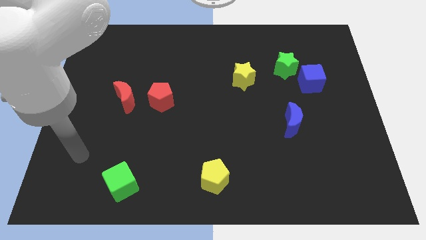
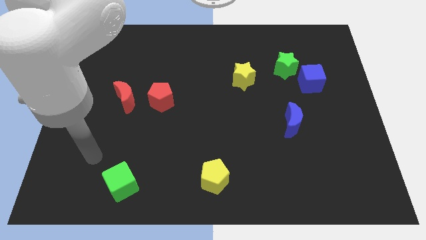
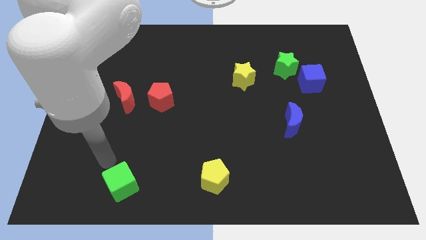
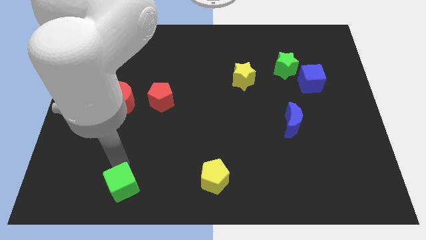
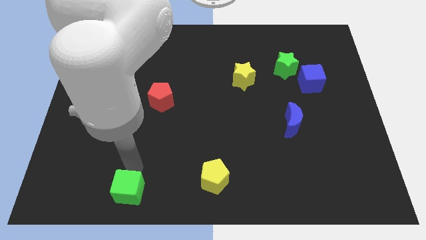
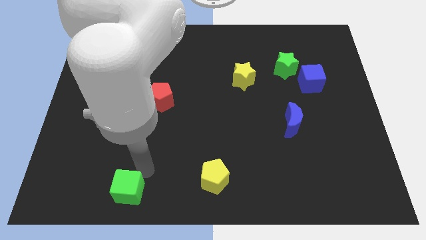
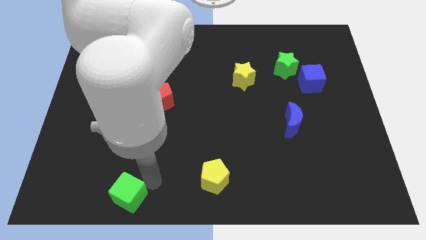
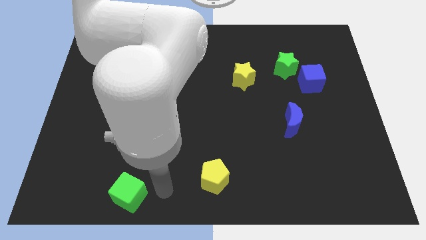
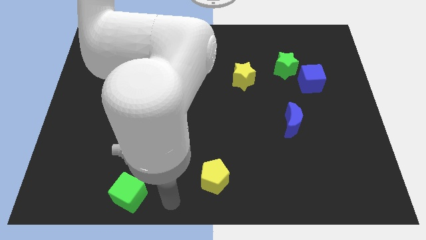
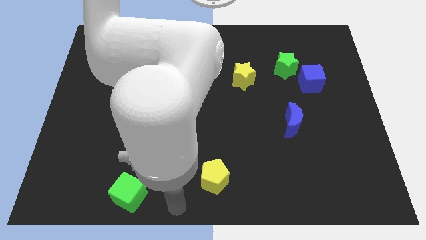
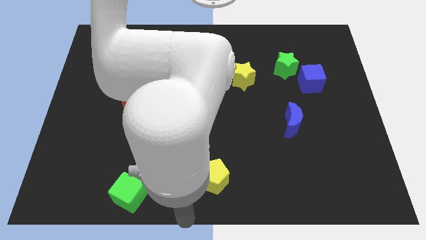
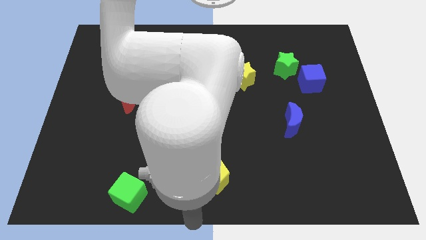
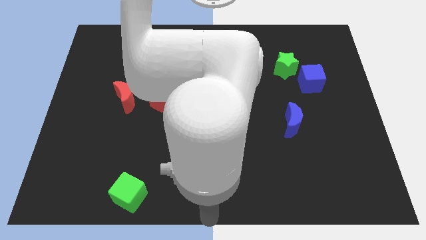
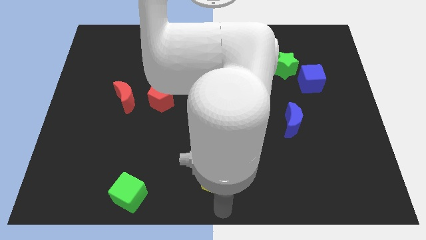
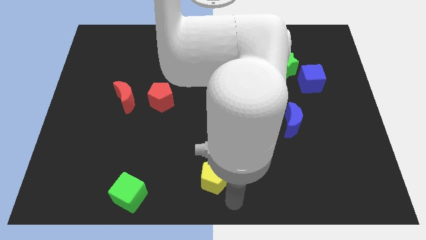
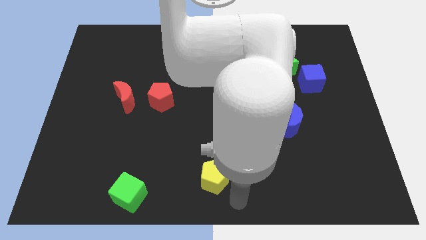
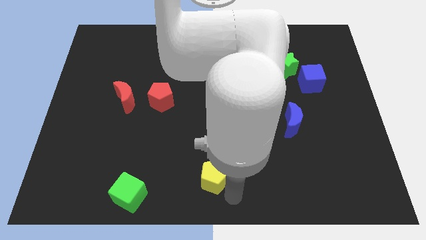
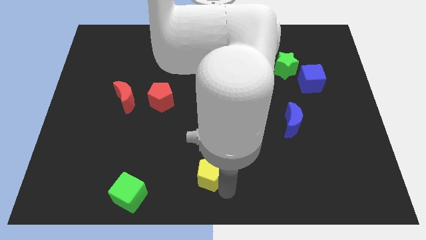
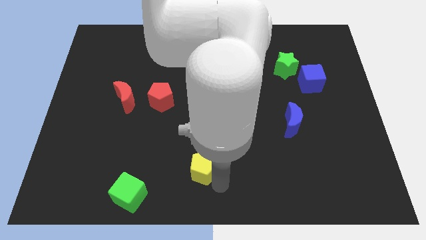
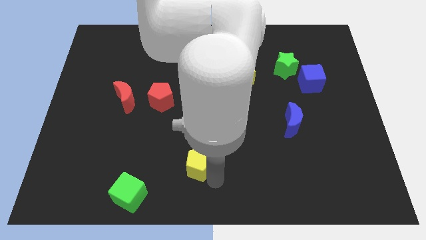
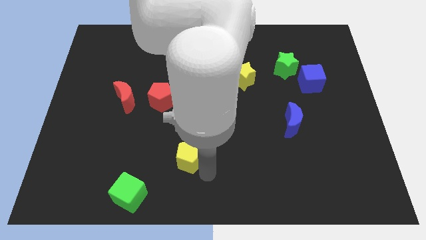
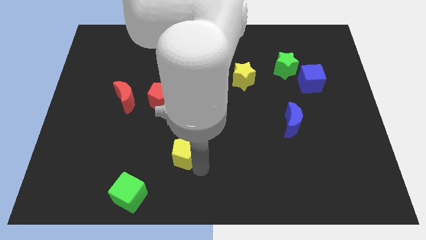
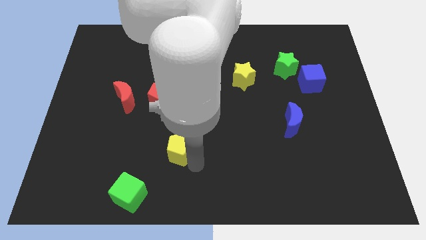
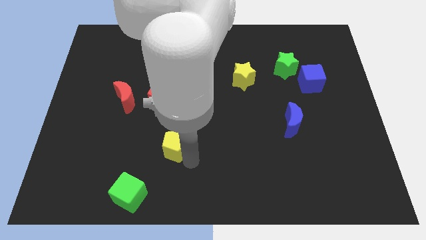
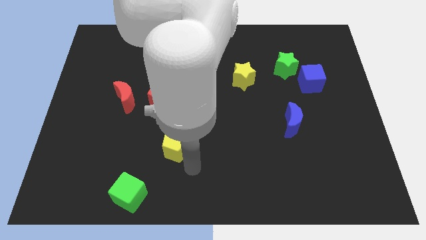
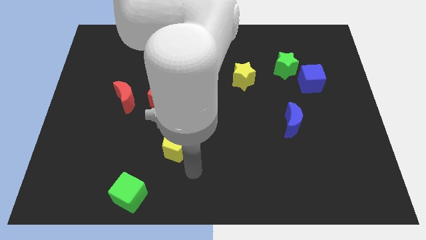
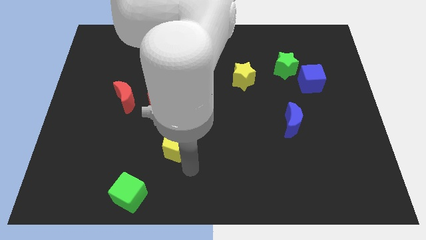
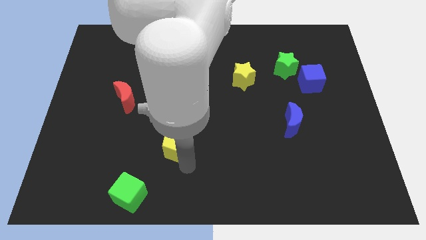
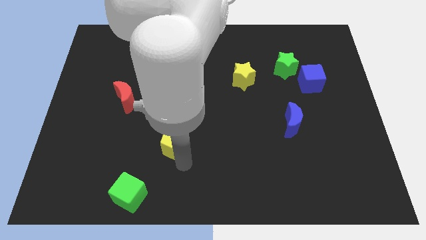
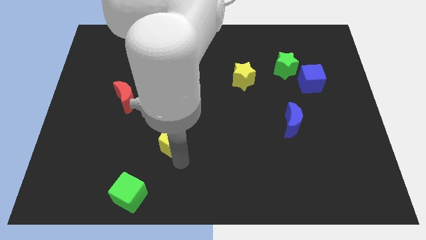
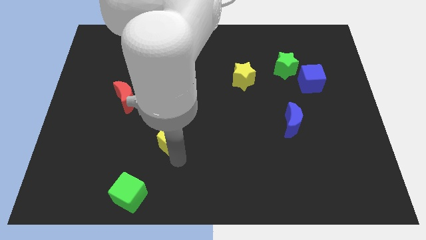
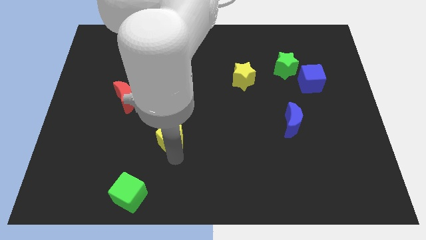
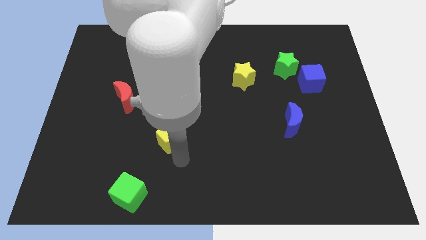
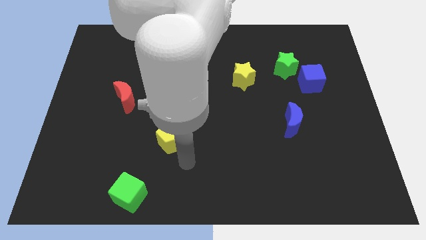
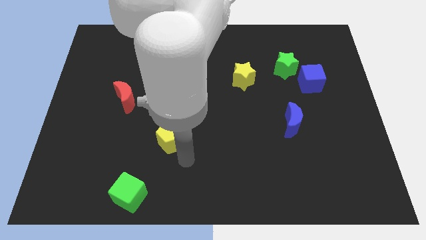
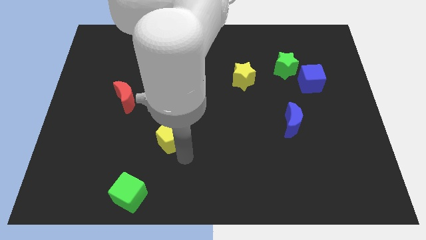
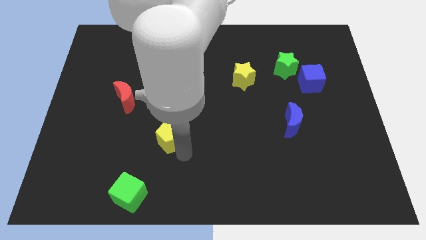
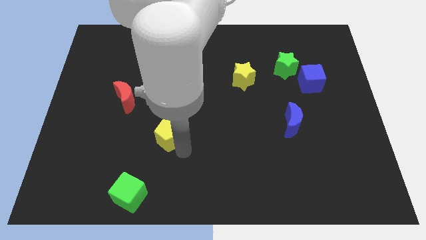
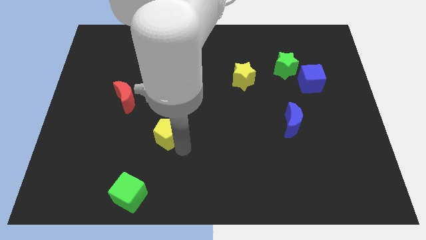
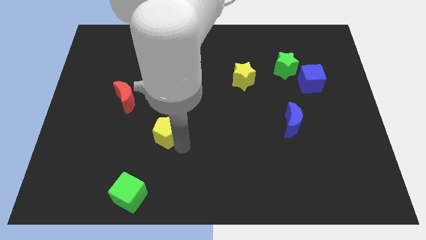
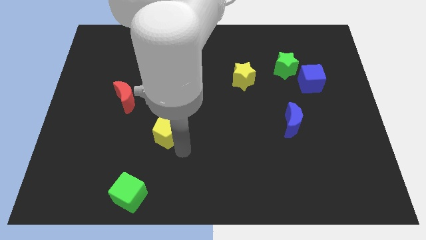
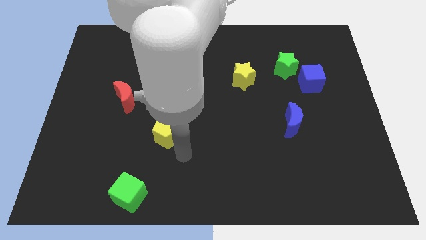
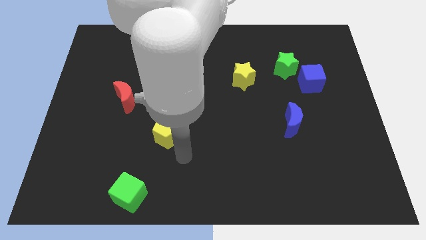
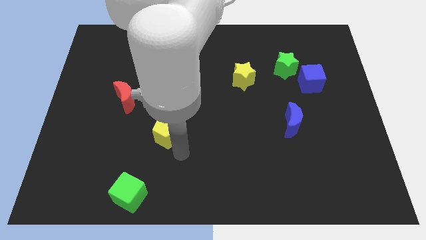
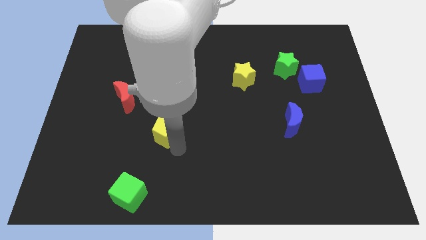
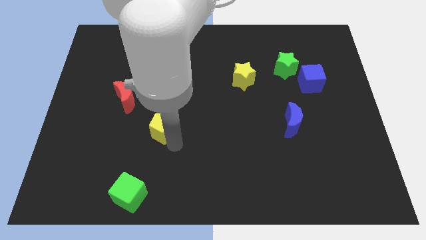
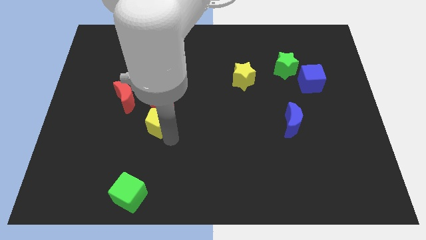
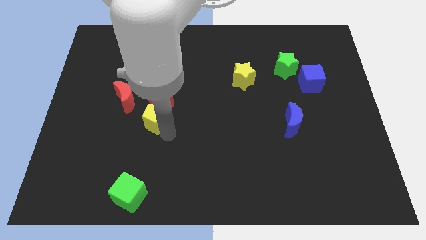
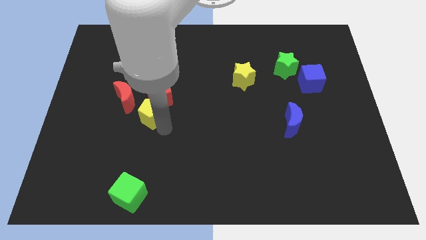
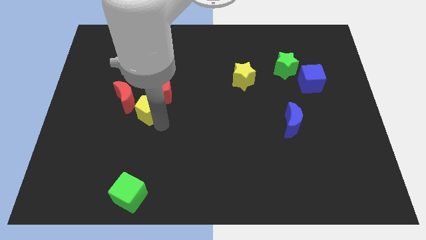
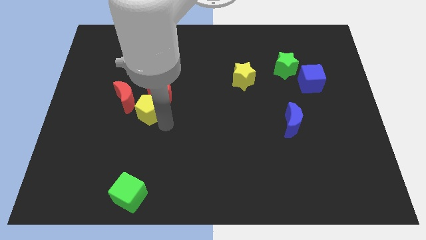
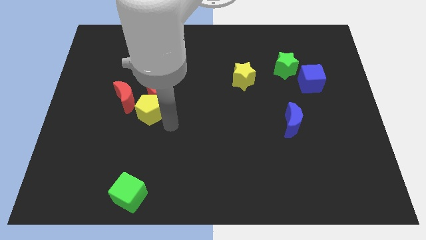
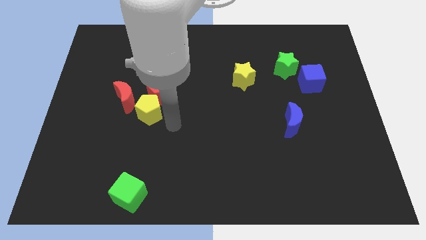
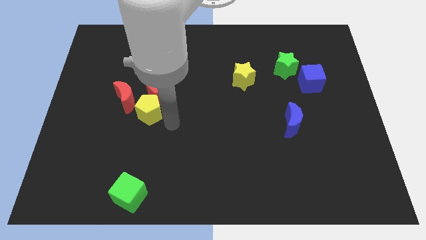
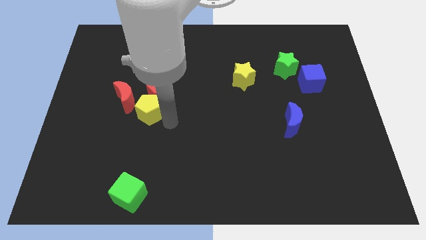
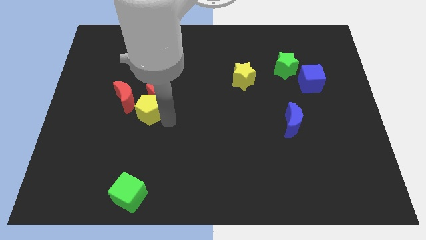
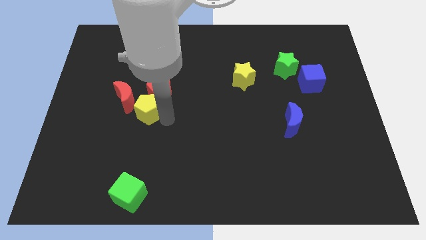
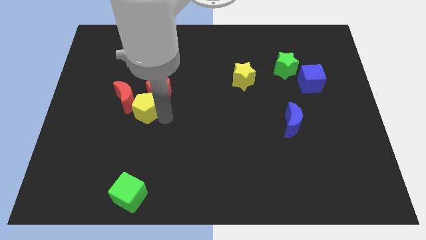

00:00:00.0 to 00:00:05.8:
slide the yellow pentagon to the red moon
